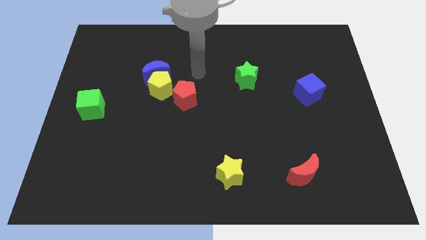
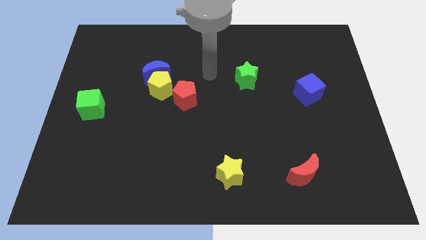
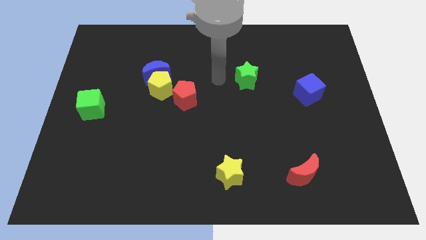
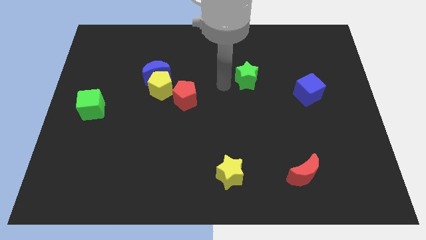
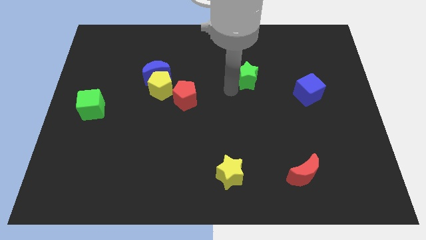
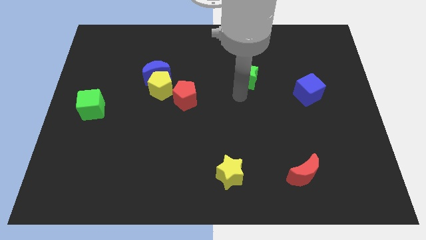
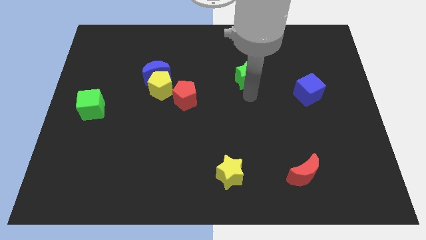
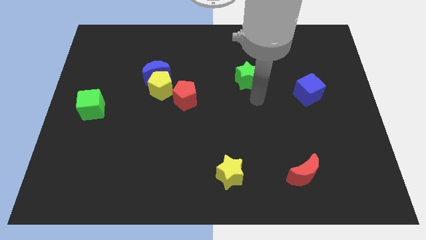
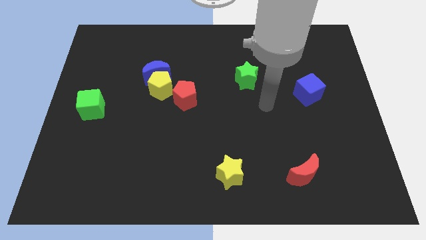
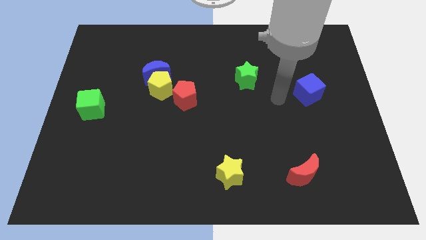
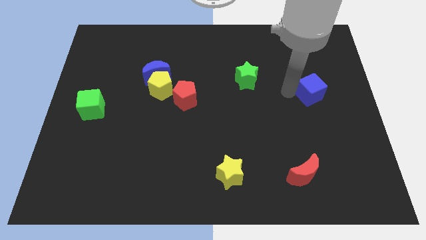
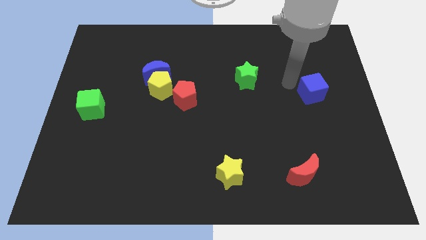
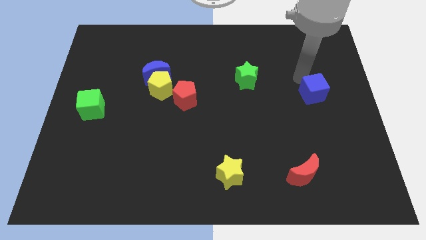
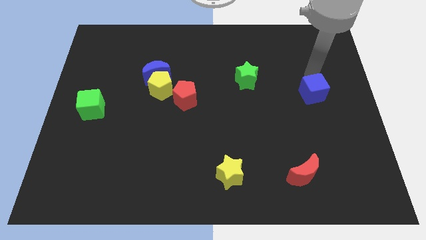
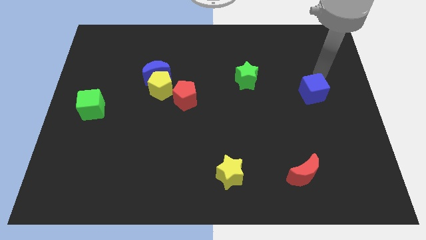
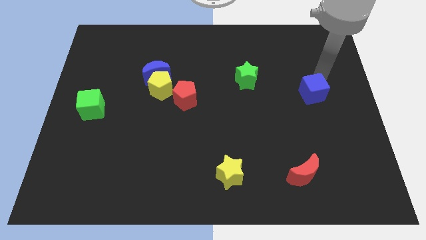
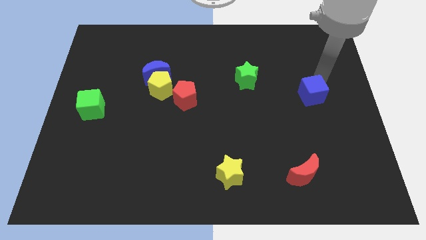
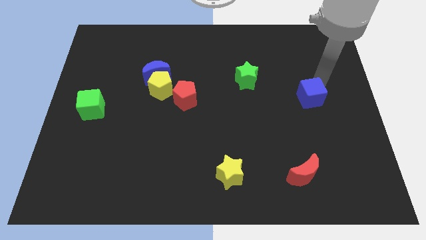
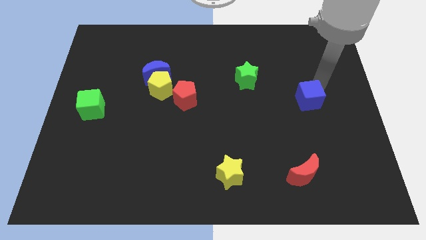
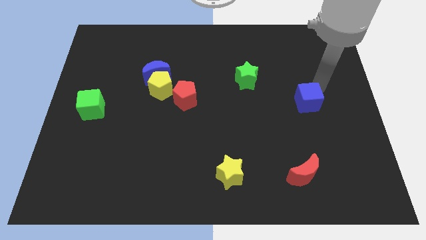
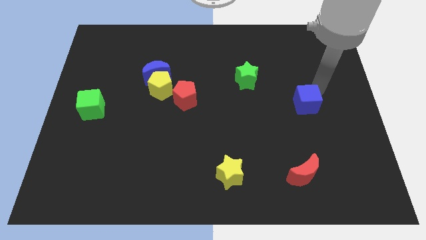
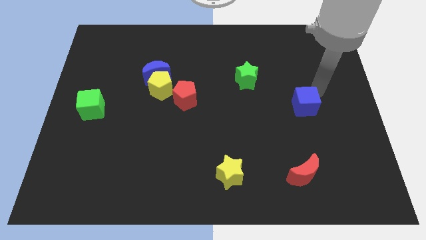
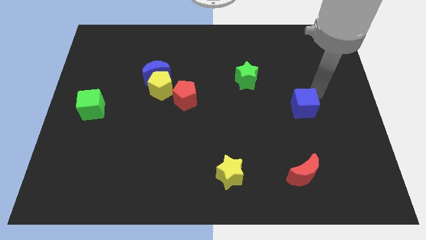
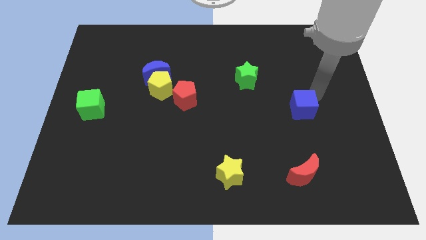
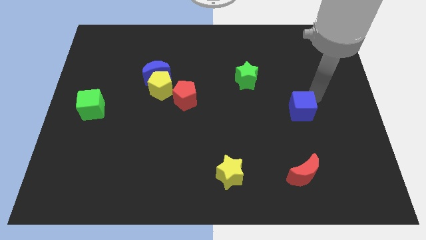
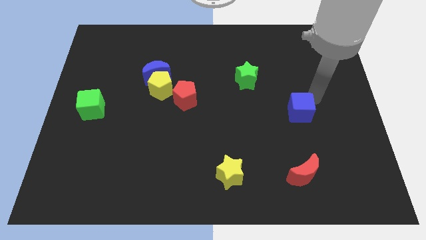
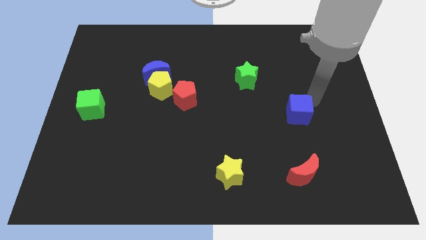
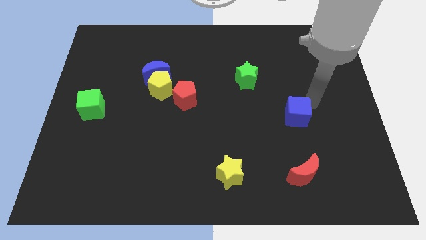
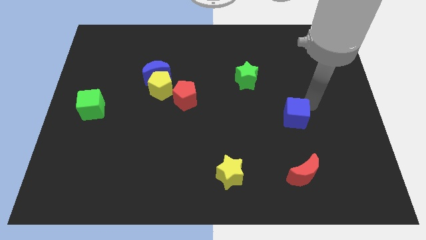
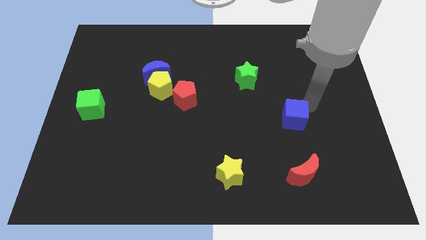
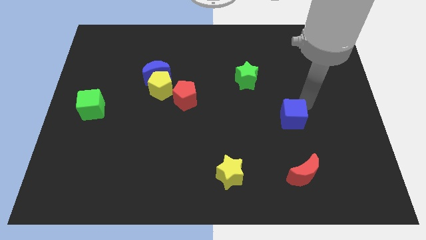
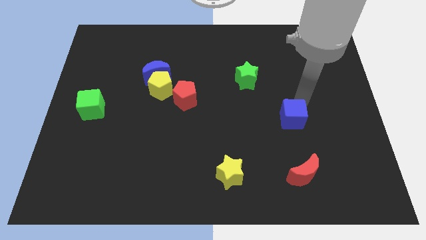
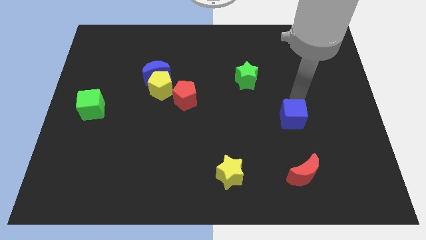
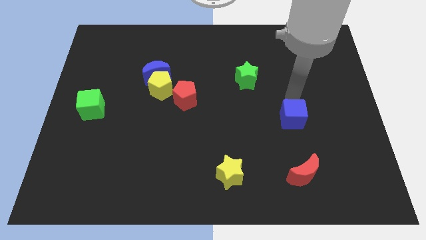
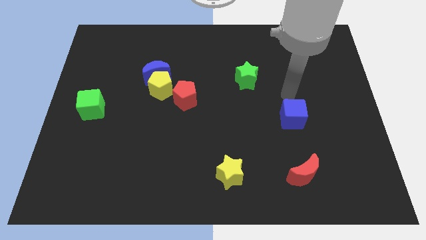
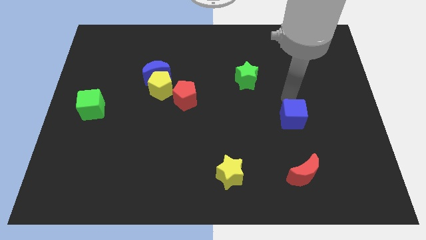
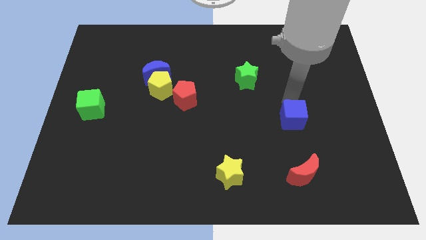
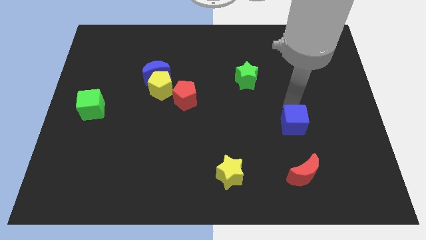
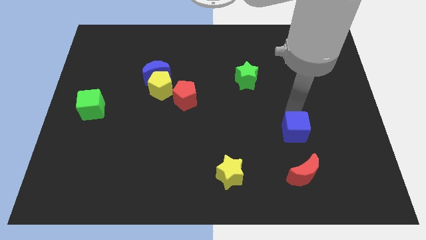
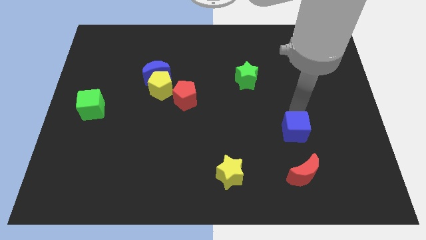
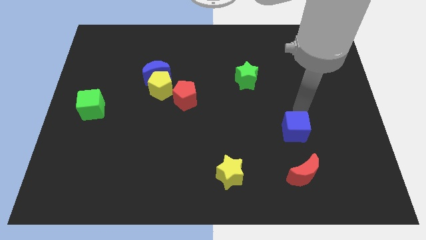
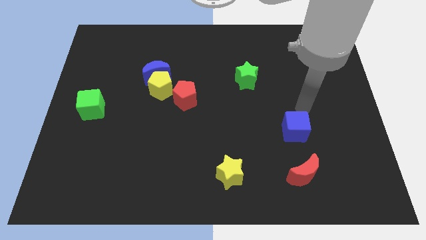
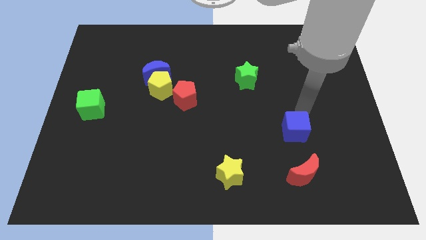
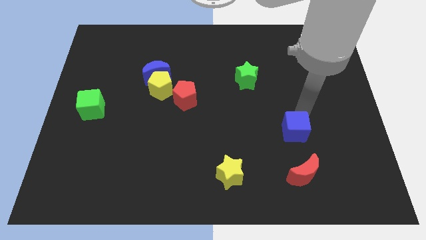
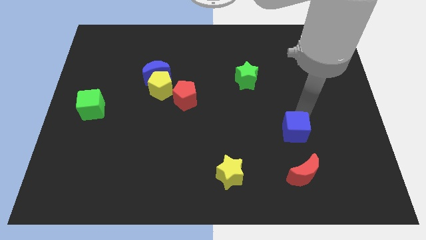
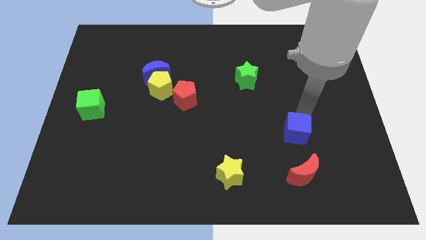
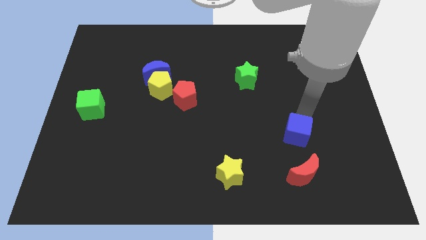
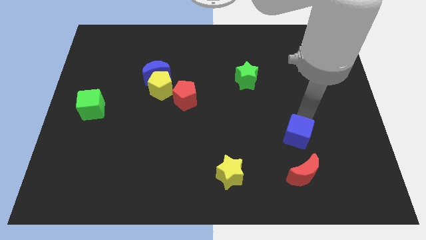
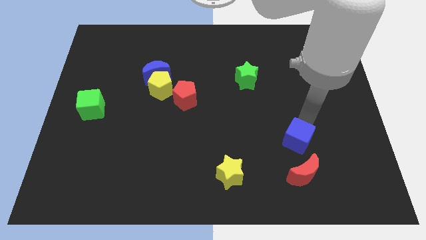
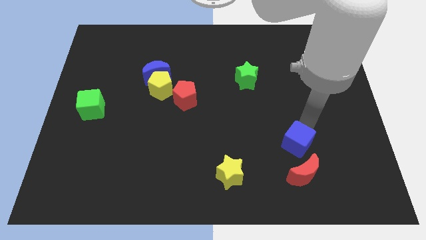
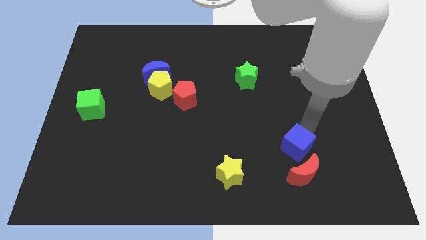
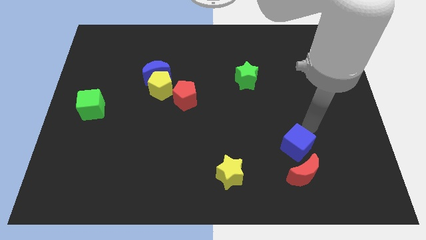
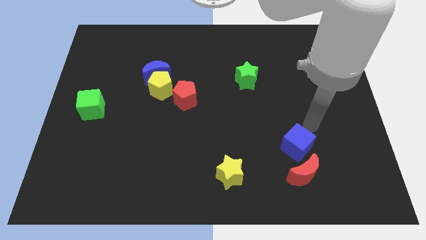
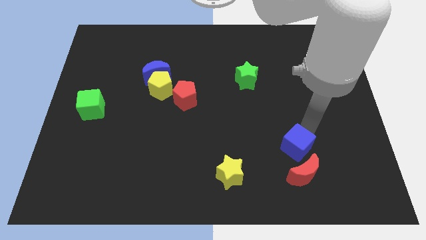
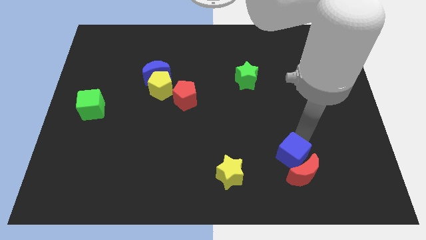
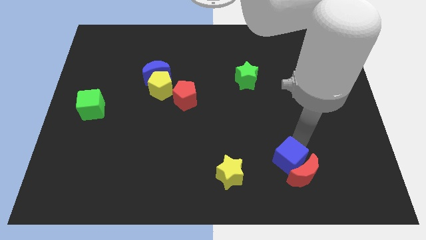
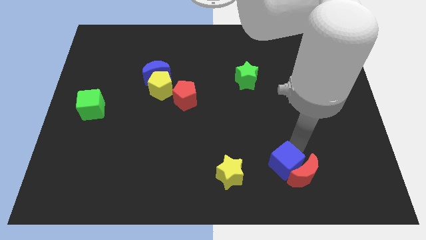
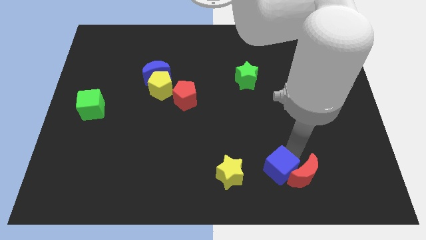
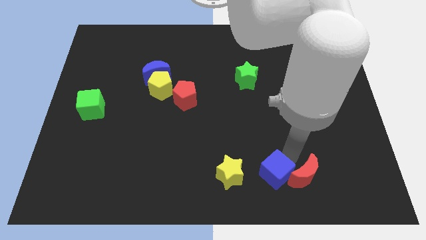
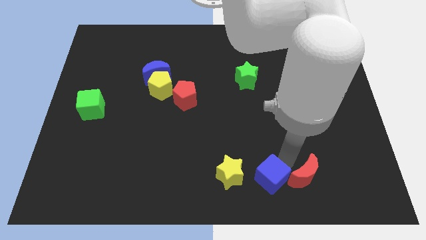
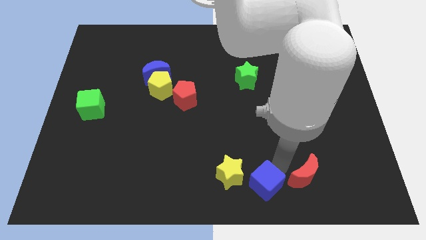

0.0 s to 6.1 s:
put the blue cube to the bottom

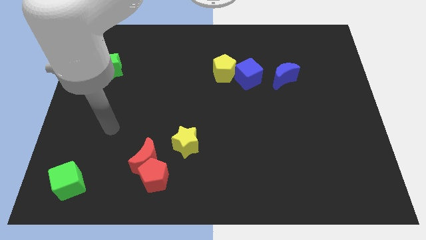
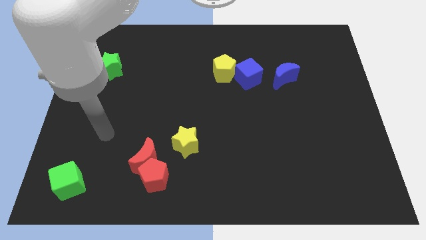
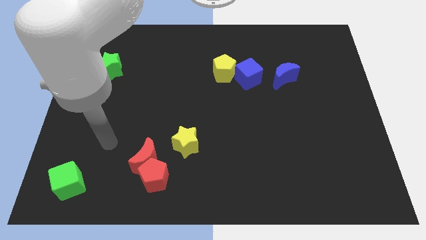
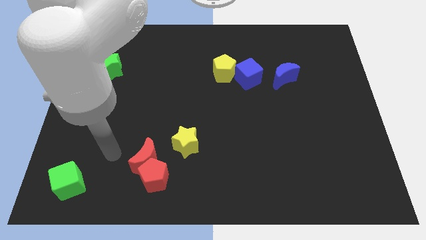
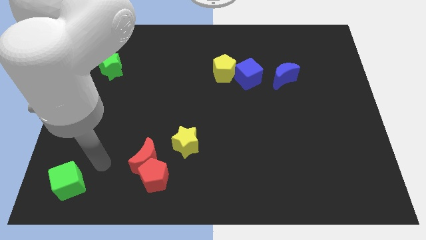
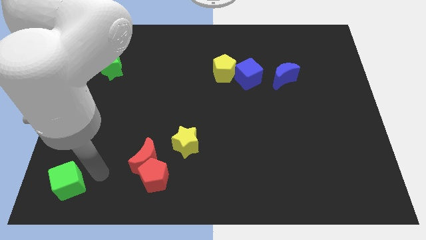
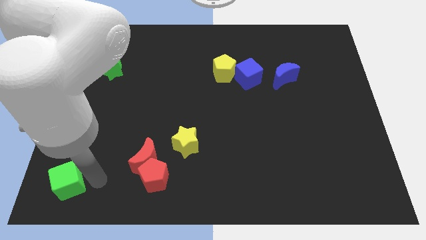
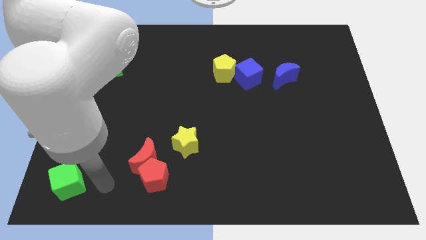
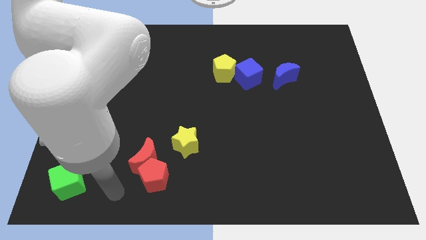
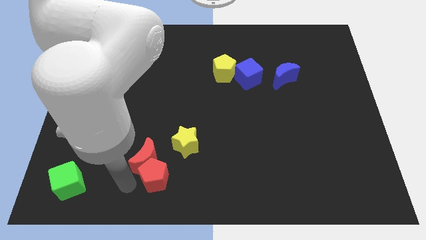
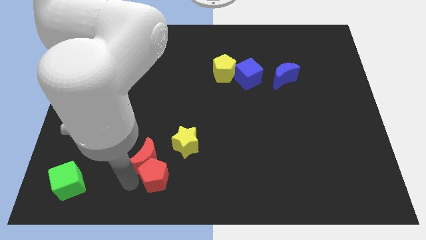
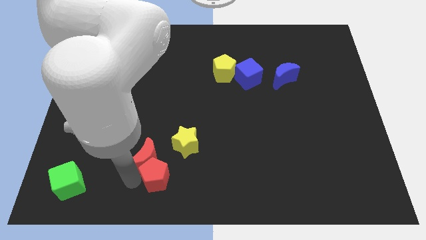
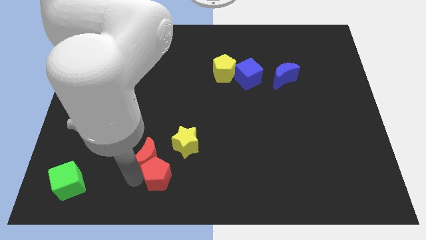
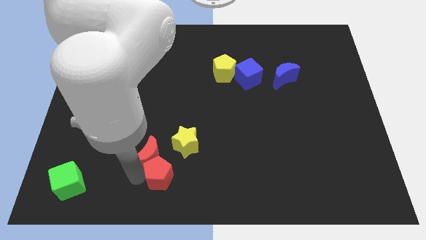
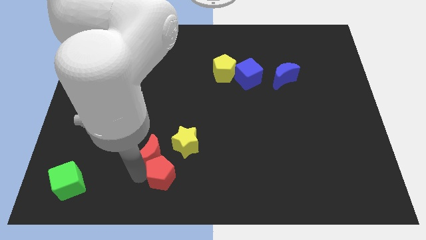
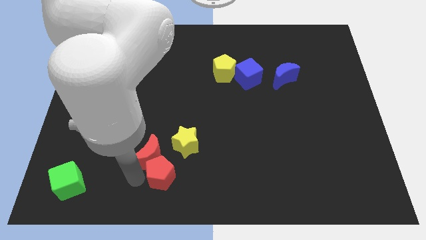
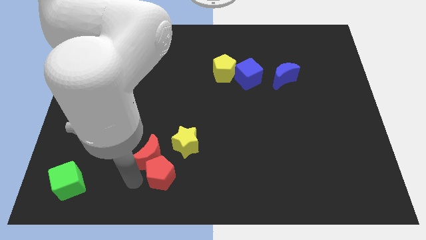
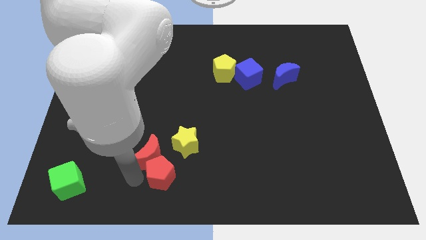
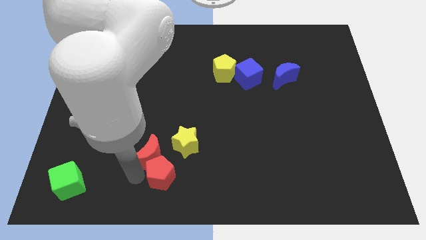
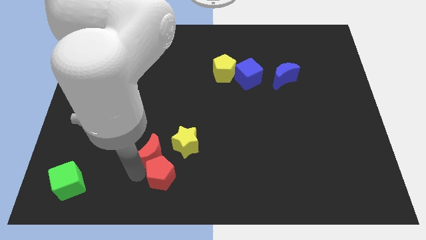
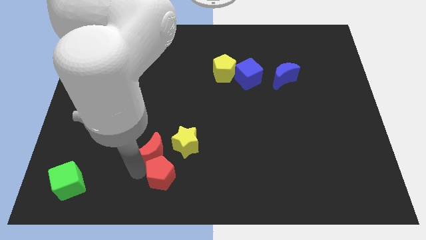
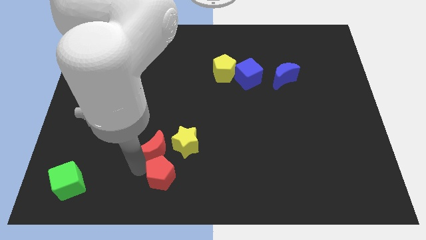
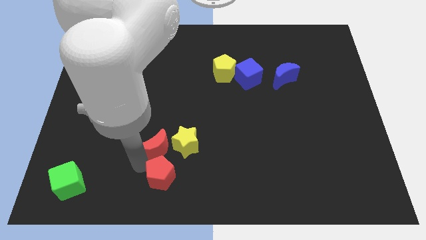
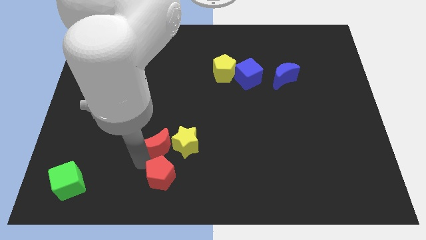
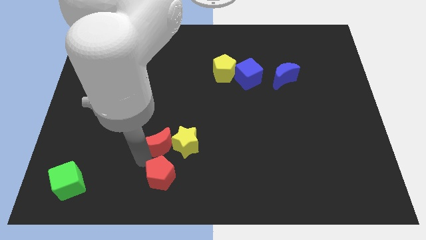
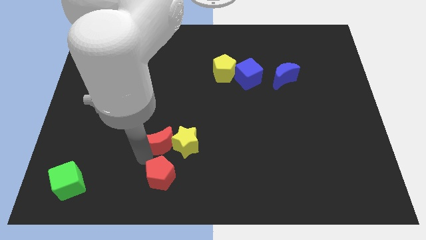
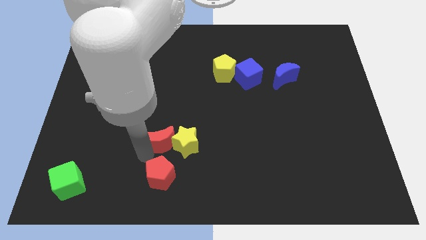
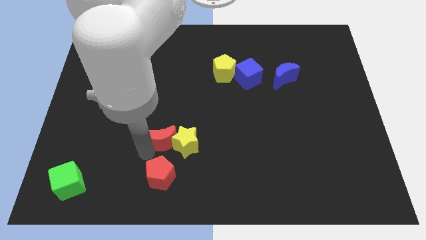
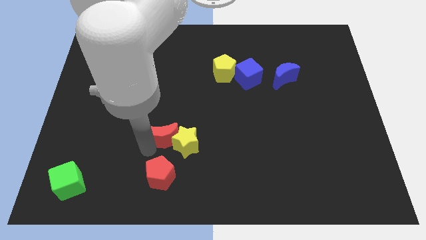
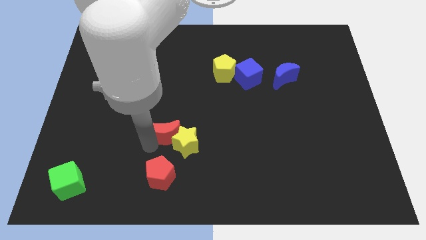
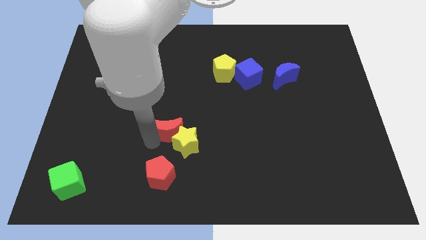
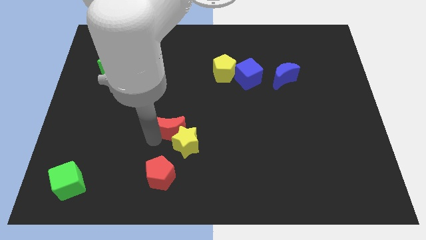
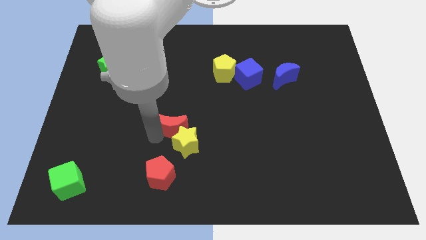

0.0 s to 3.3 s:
push the red moon to the middle
